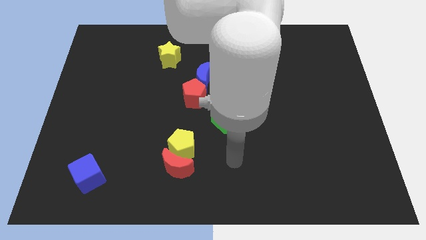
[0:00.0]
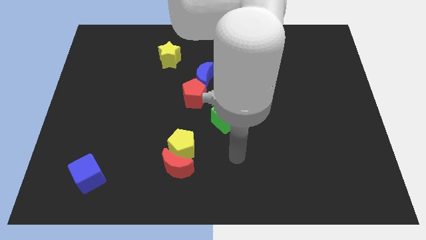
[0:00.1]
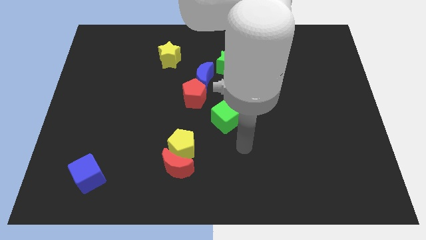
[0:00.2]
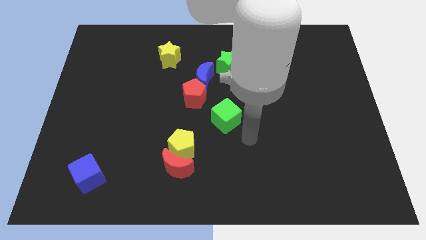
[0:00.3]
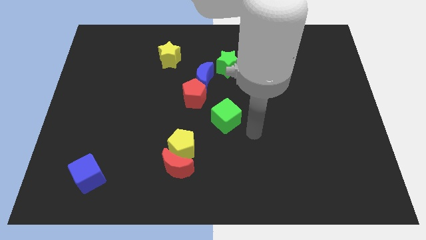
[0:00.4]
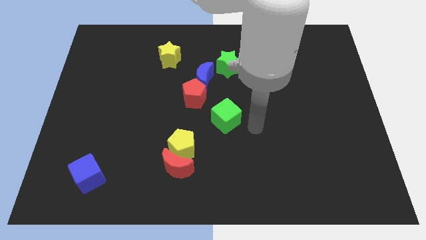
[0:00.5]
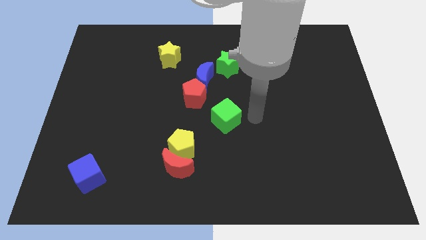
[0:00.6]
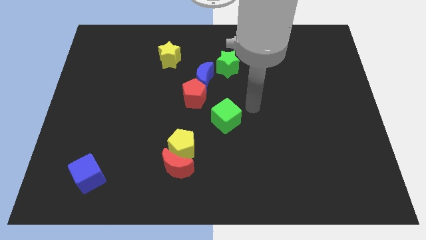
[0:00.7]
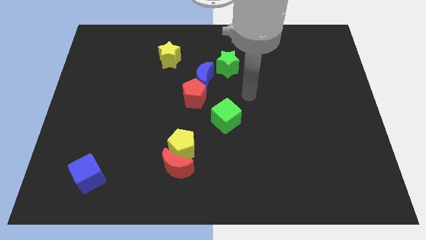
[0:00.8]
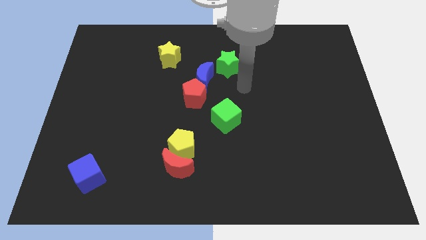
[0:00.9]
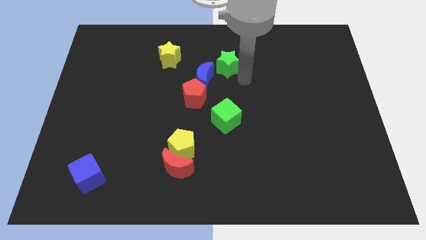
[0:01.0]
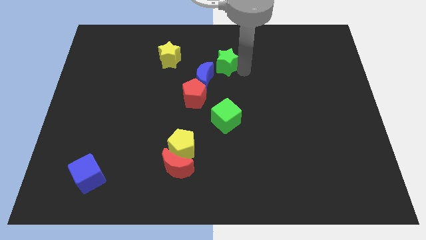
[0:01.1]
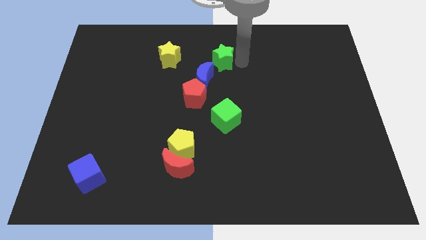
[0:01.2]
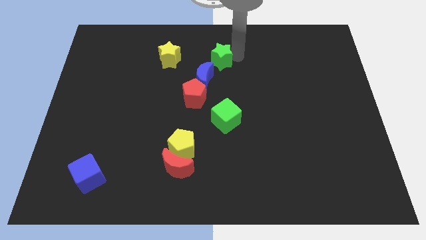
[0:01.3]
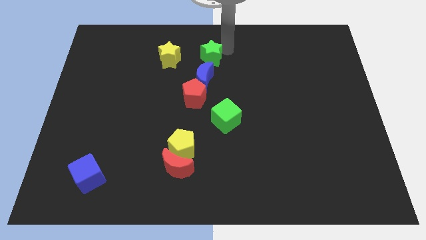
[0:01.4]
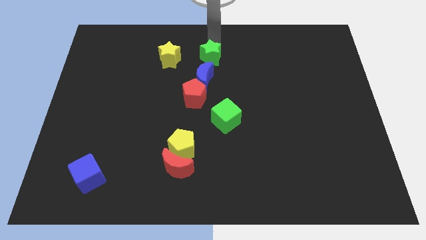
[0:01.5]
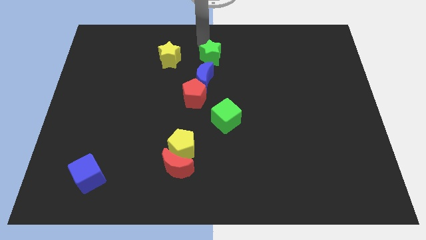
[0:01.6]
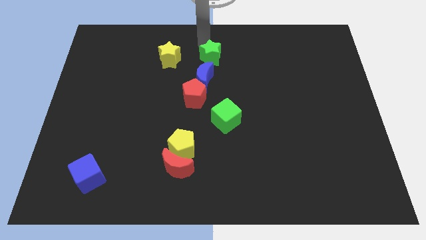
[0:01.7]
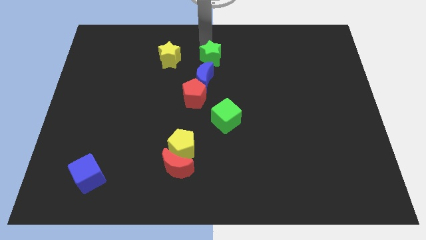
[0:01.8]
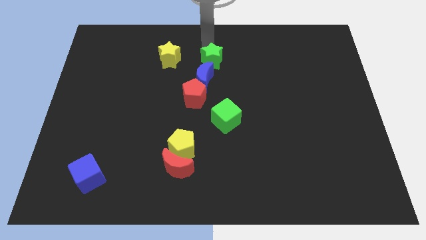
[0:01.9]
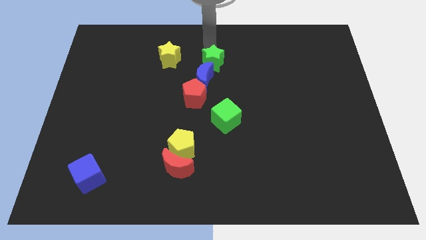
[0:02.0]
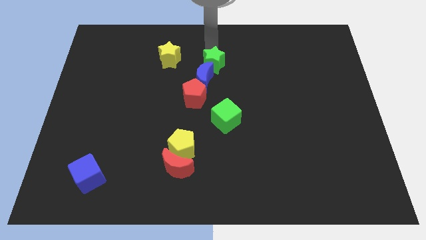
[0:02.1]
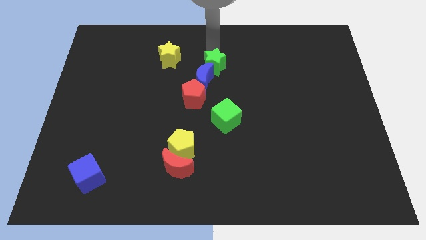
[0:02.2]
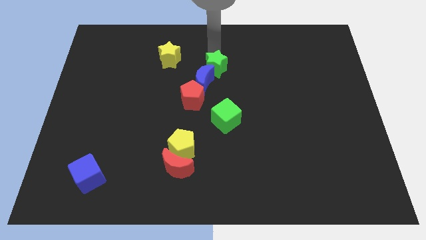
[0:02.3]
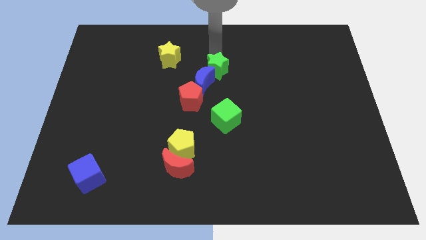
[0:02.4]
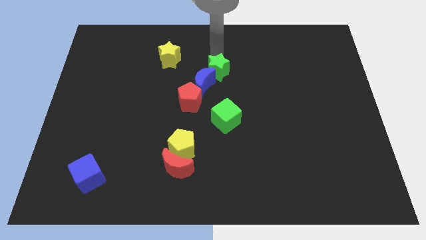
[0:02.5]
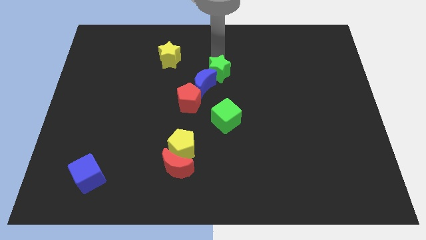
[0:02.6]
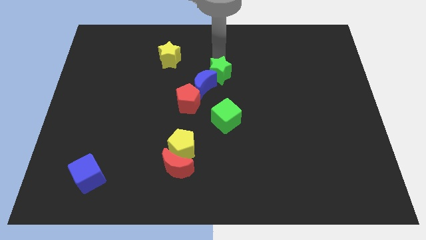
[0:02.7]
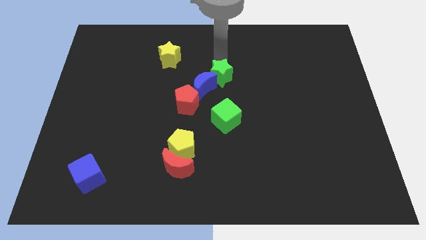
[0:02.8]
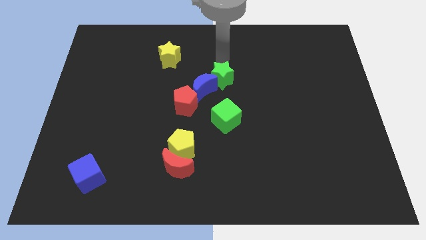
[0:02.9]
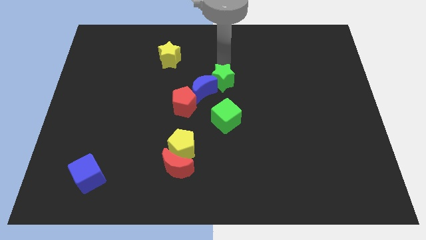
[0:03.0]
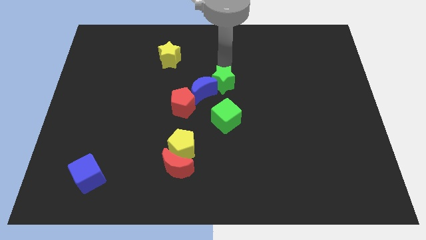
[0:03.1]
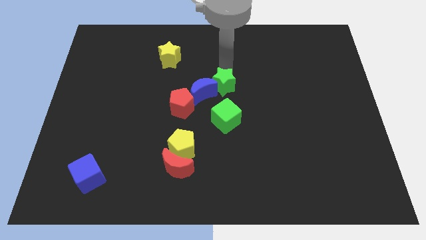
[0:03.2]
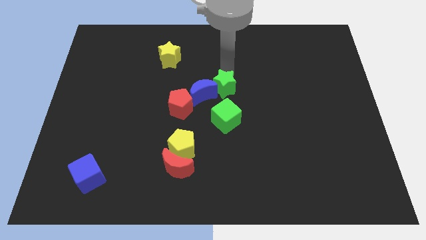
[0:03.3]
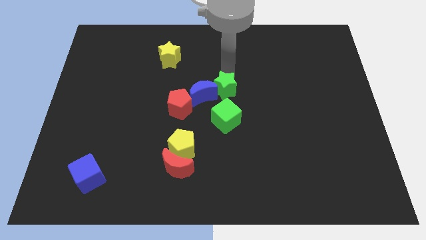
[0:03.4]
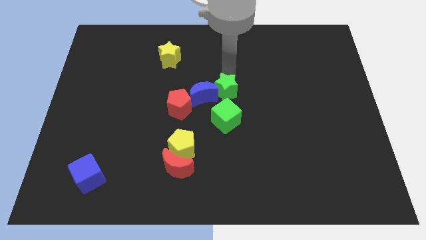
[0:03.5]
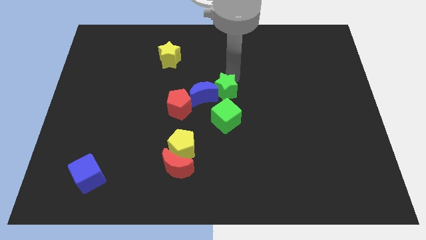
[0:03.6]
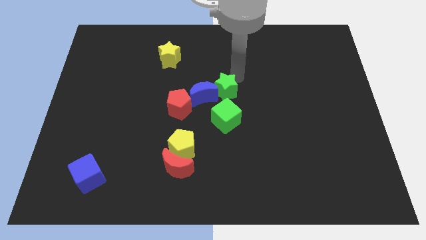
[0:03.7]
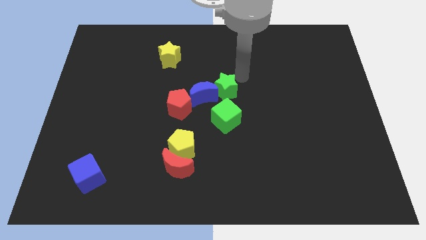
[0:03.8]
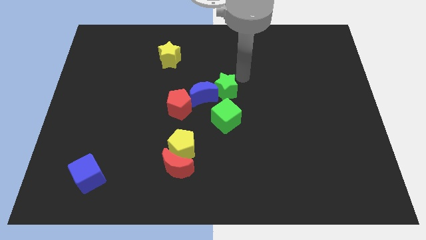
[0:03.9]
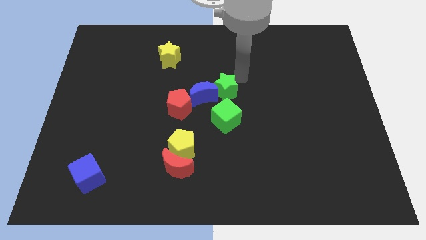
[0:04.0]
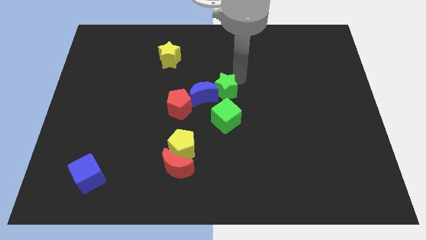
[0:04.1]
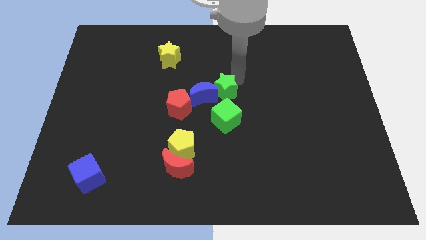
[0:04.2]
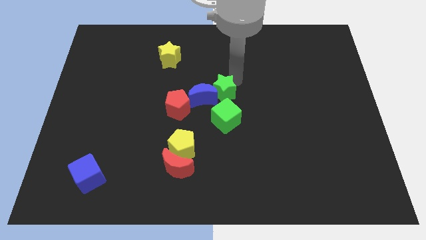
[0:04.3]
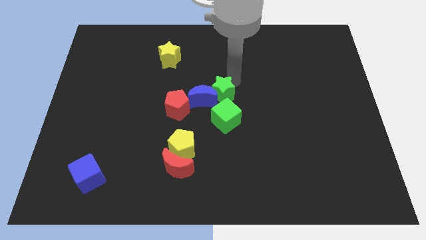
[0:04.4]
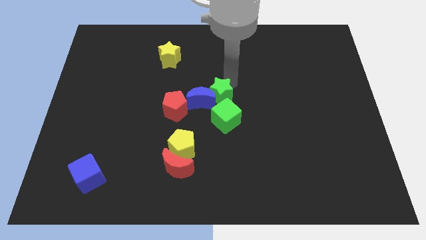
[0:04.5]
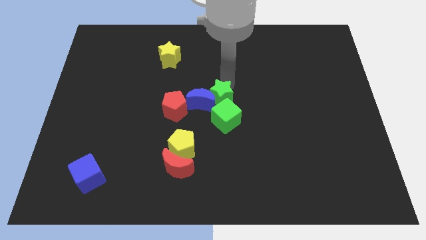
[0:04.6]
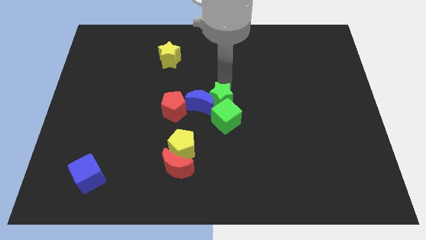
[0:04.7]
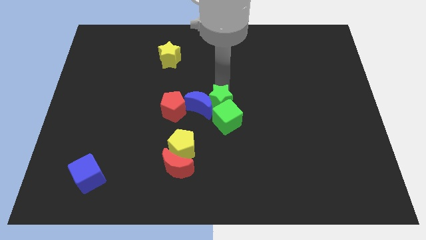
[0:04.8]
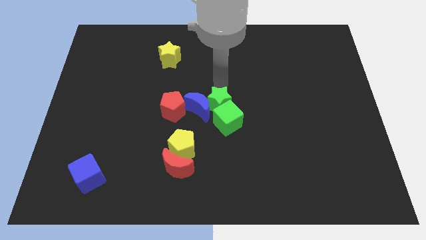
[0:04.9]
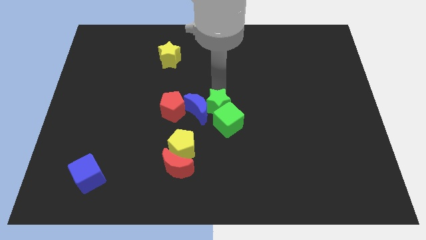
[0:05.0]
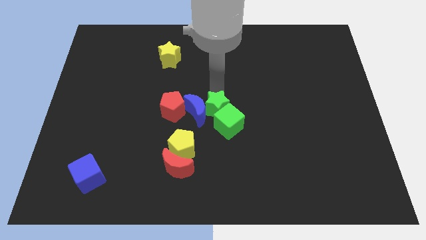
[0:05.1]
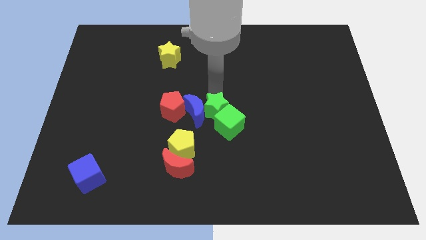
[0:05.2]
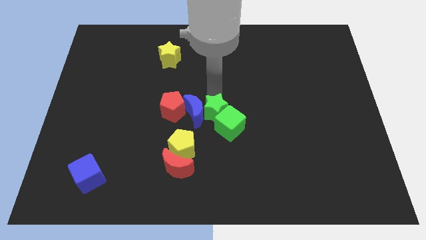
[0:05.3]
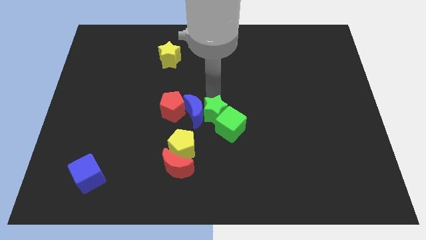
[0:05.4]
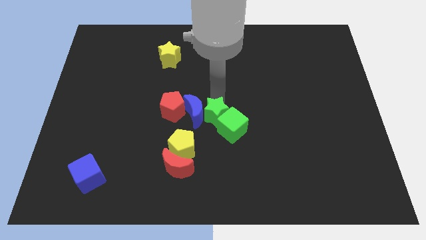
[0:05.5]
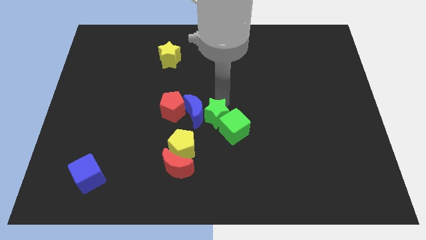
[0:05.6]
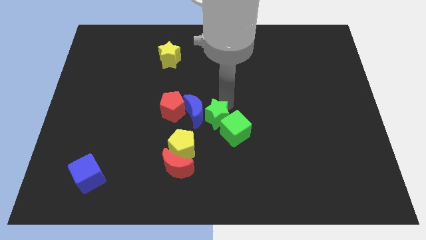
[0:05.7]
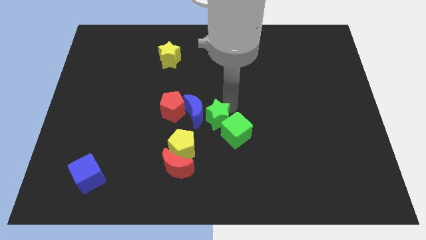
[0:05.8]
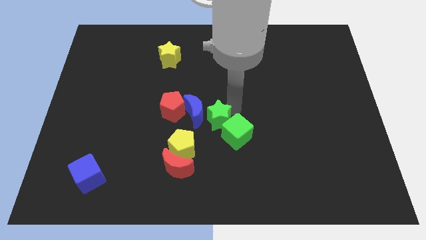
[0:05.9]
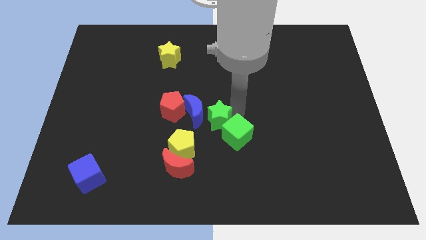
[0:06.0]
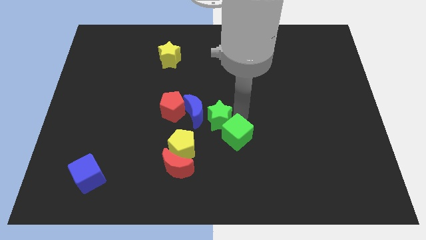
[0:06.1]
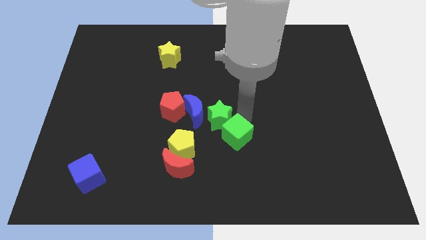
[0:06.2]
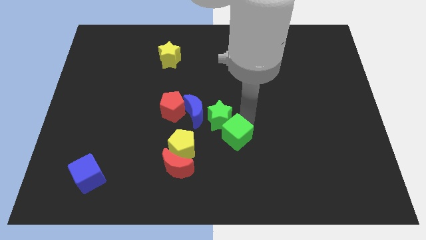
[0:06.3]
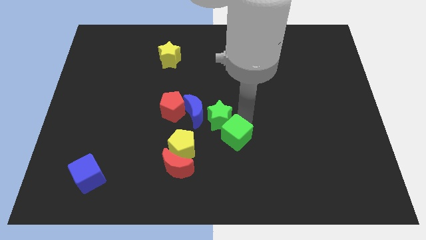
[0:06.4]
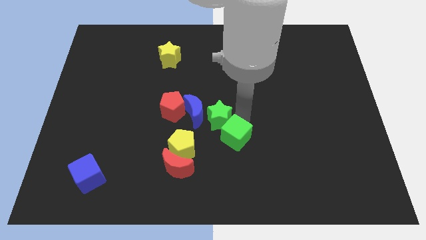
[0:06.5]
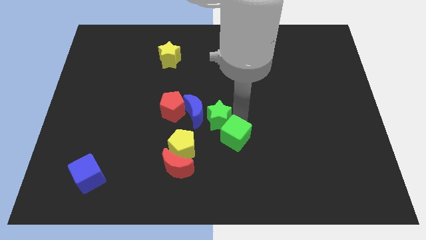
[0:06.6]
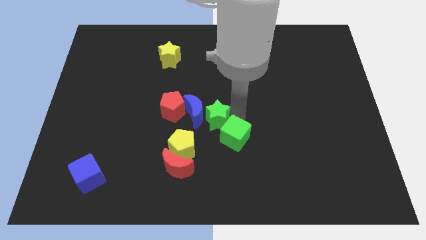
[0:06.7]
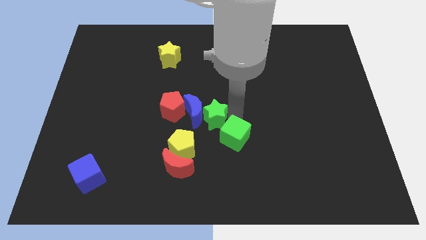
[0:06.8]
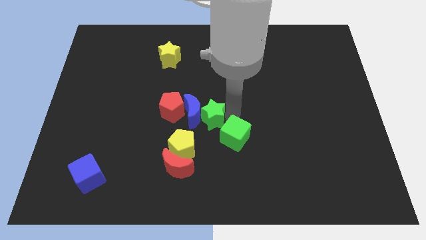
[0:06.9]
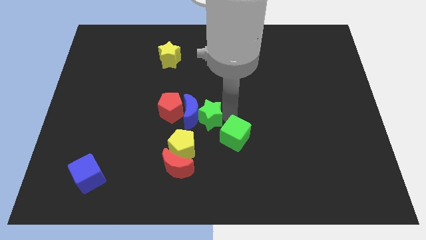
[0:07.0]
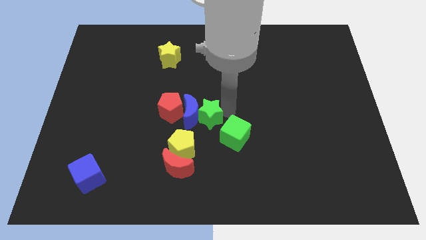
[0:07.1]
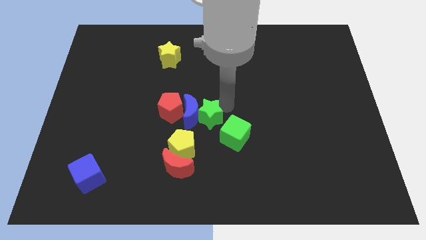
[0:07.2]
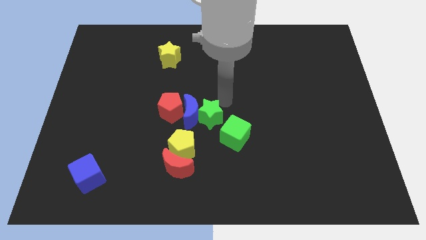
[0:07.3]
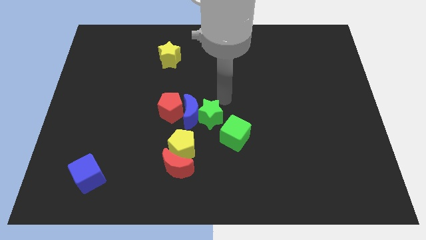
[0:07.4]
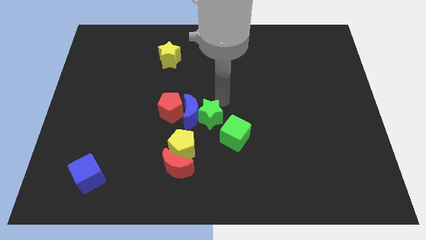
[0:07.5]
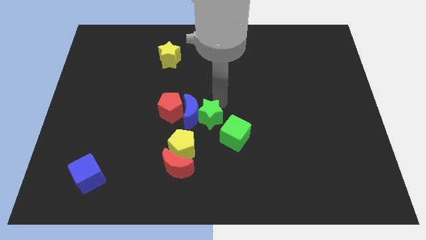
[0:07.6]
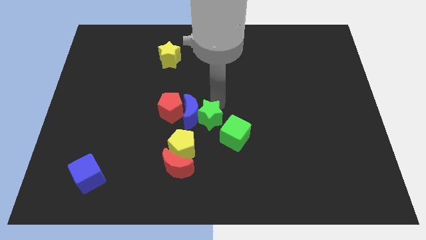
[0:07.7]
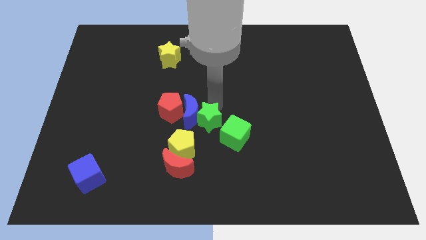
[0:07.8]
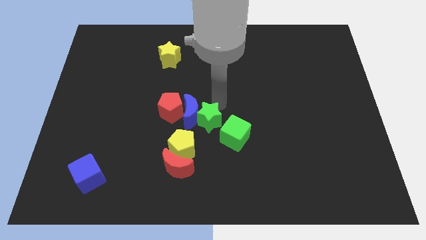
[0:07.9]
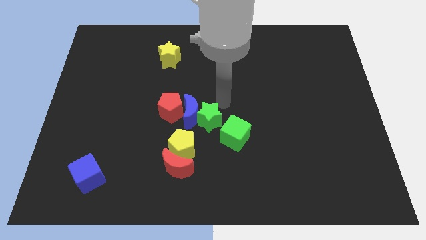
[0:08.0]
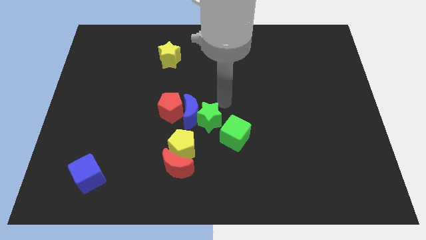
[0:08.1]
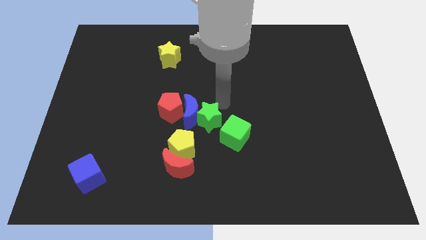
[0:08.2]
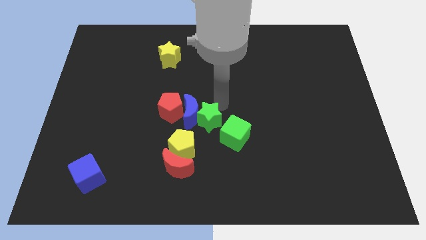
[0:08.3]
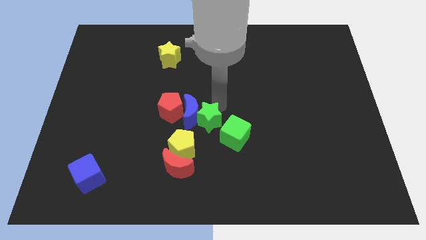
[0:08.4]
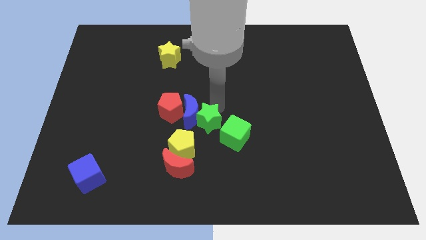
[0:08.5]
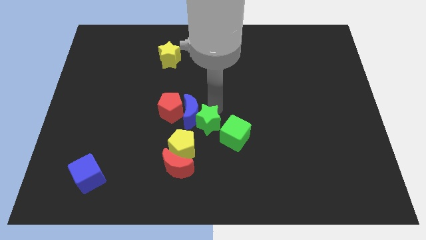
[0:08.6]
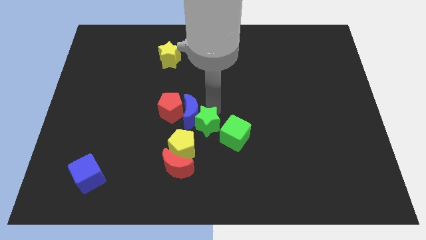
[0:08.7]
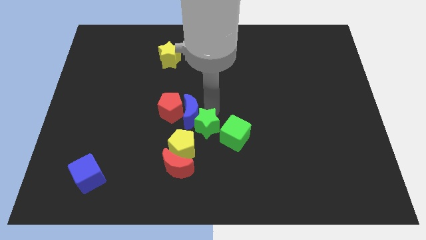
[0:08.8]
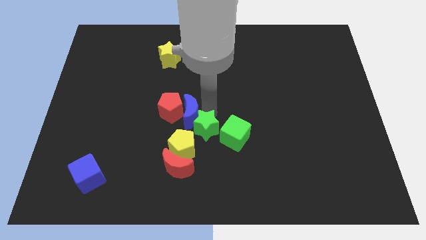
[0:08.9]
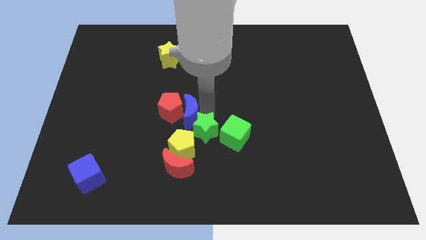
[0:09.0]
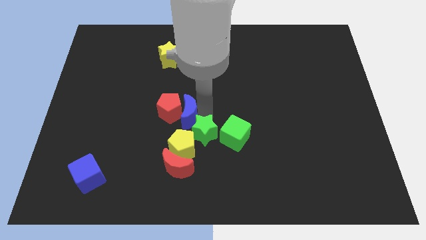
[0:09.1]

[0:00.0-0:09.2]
slide the green star close to the yellow pentagon
